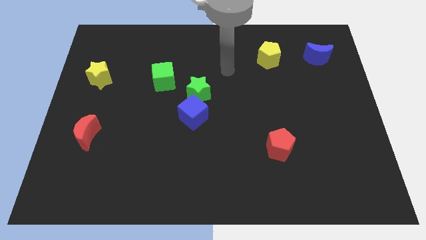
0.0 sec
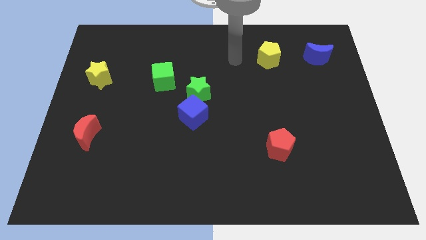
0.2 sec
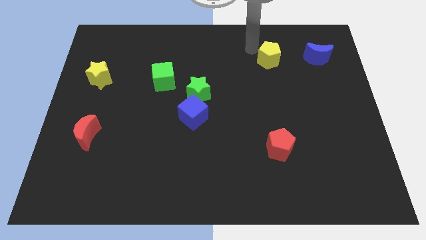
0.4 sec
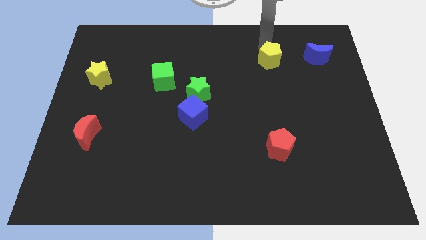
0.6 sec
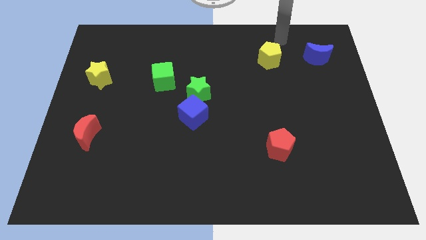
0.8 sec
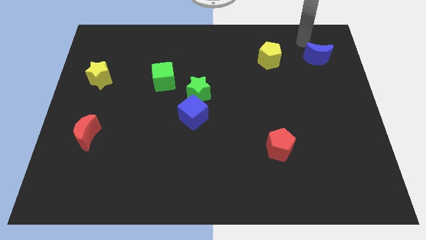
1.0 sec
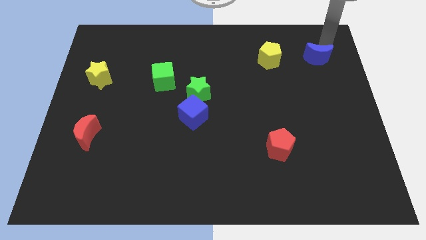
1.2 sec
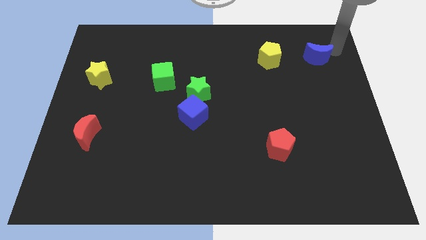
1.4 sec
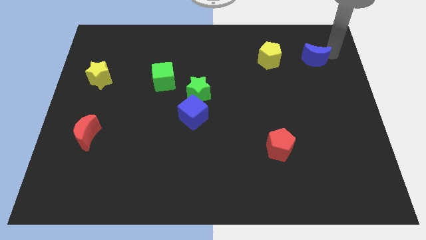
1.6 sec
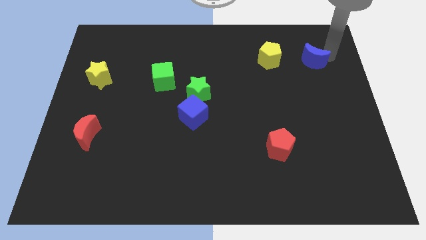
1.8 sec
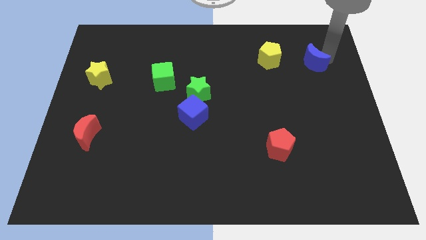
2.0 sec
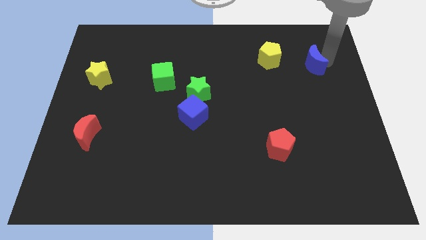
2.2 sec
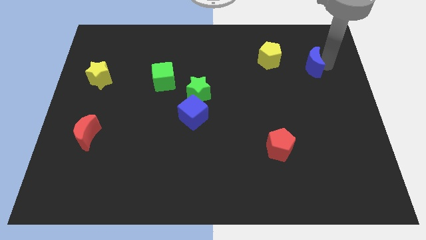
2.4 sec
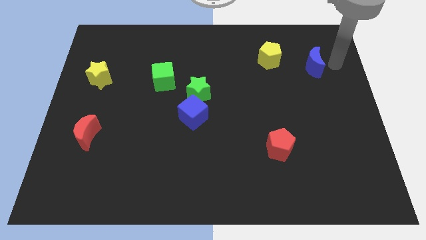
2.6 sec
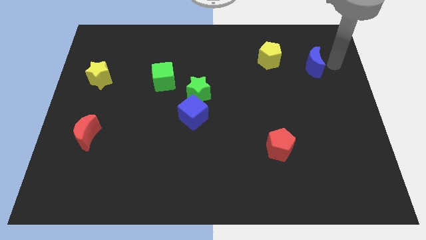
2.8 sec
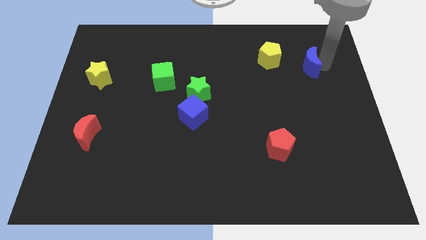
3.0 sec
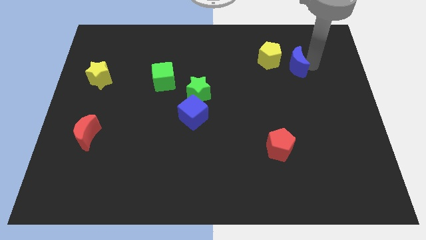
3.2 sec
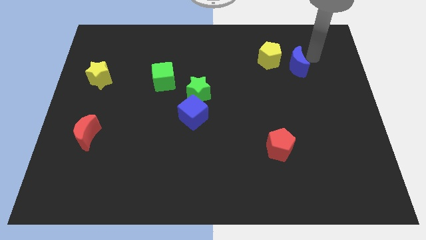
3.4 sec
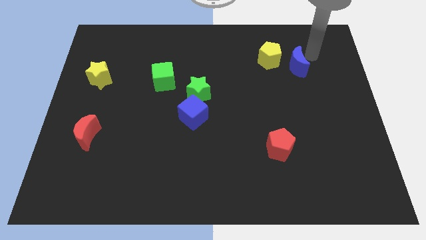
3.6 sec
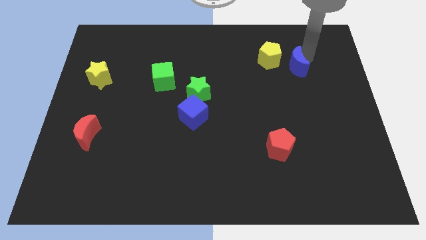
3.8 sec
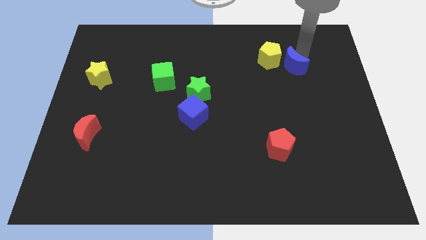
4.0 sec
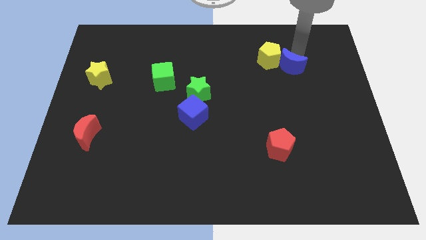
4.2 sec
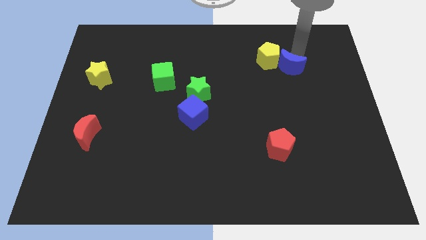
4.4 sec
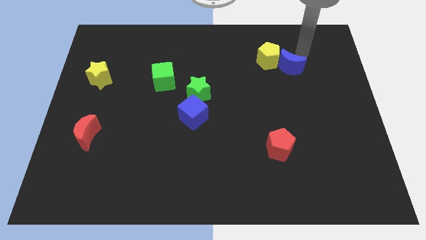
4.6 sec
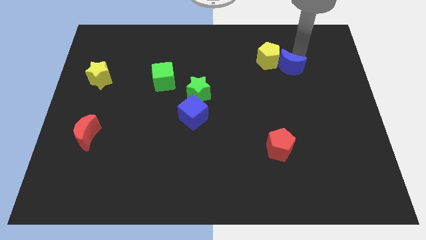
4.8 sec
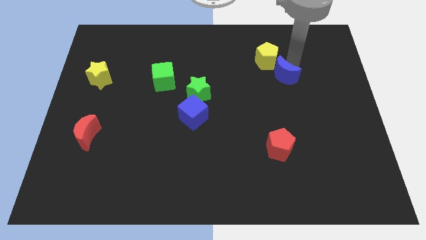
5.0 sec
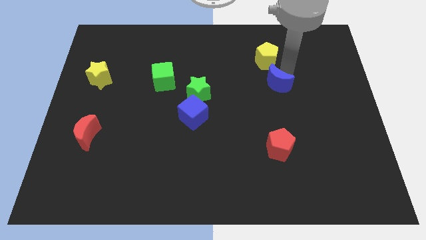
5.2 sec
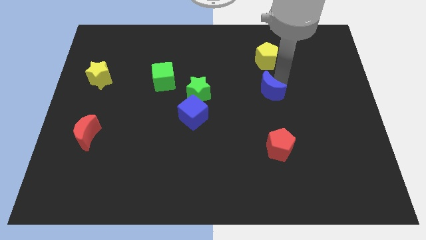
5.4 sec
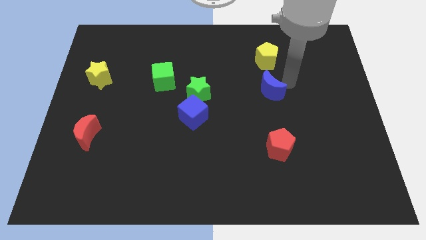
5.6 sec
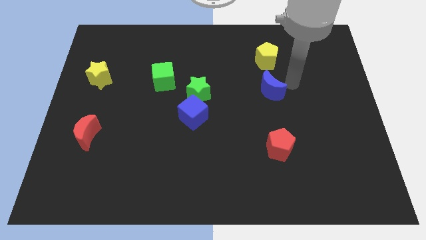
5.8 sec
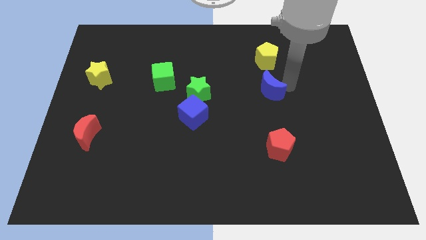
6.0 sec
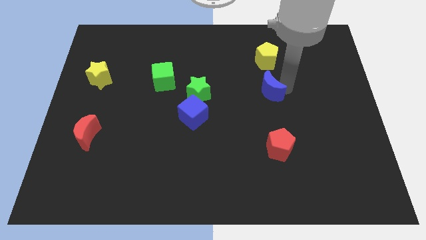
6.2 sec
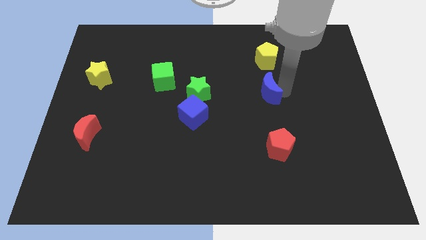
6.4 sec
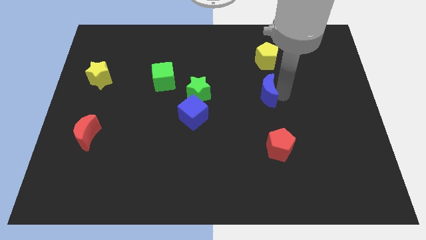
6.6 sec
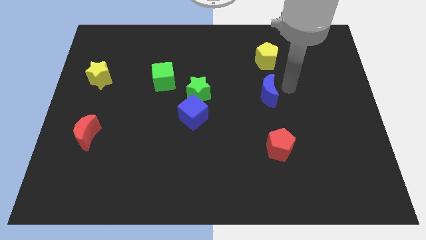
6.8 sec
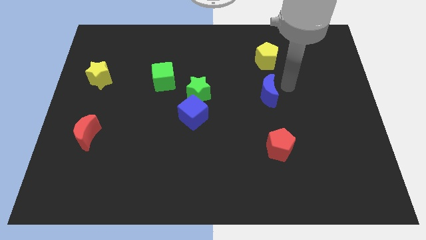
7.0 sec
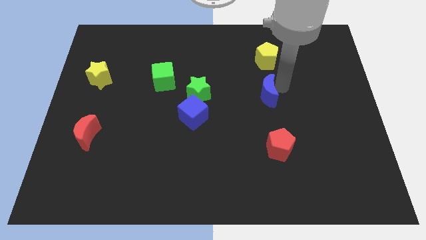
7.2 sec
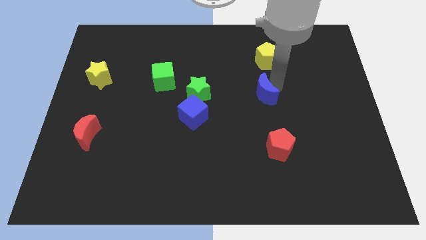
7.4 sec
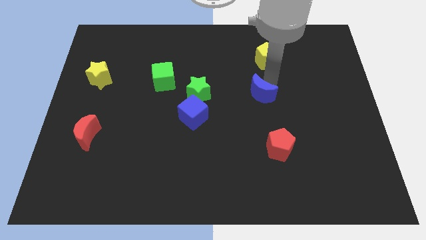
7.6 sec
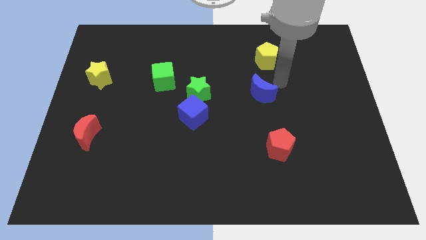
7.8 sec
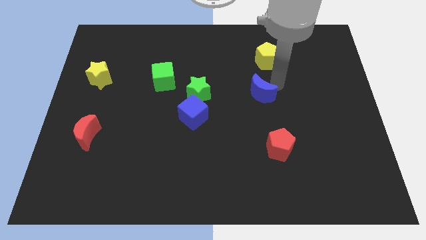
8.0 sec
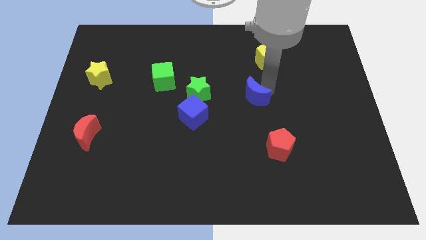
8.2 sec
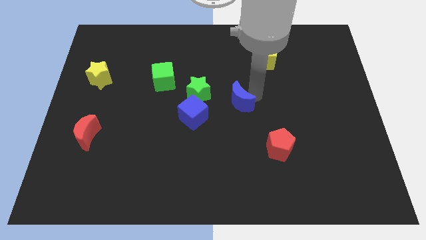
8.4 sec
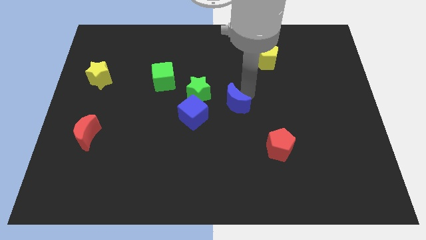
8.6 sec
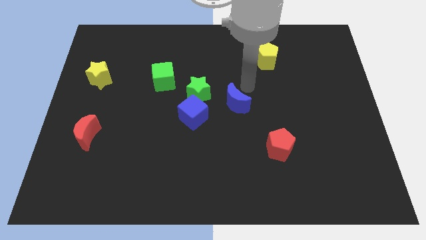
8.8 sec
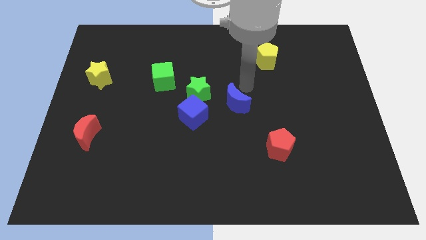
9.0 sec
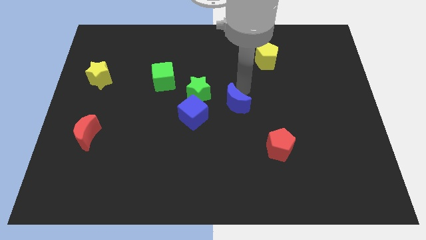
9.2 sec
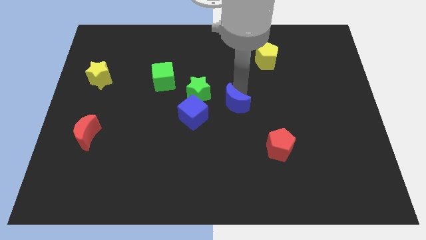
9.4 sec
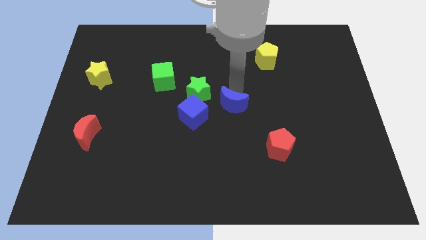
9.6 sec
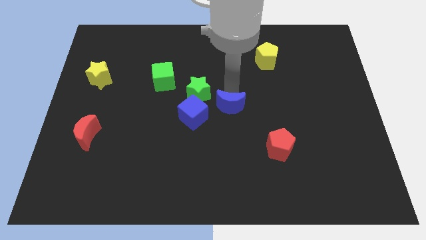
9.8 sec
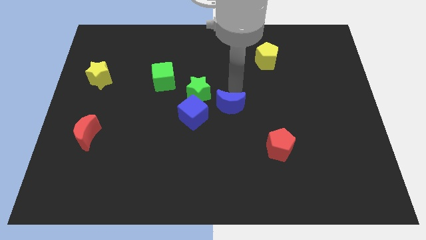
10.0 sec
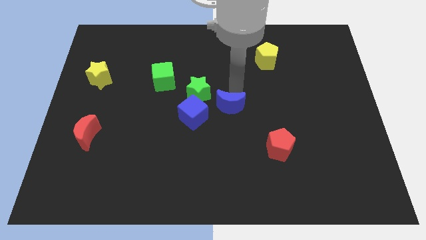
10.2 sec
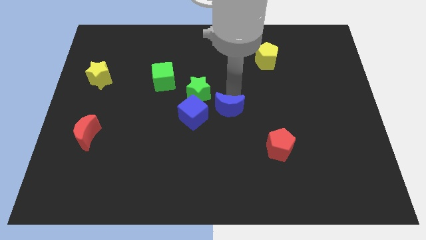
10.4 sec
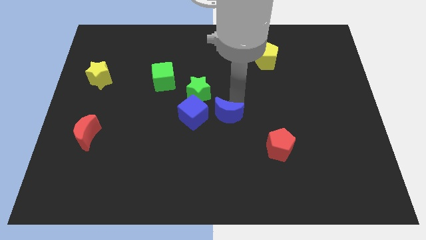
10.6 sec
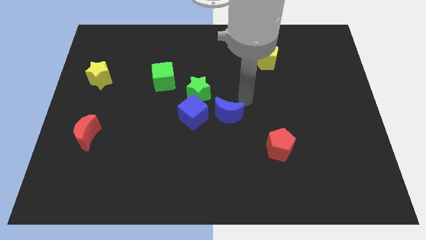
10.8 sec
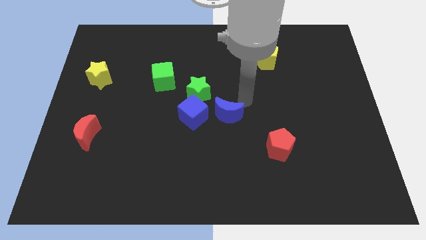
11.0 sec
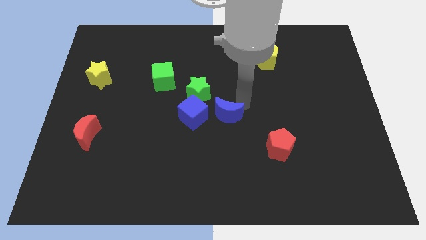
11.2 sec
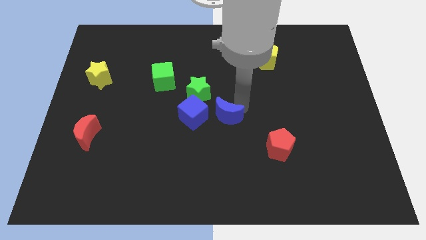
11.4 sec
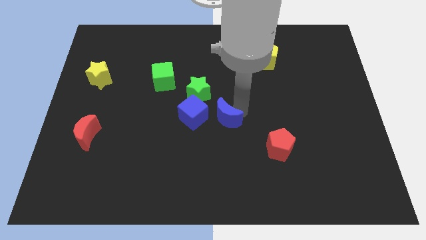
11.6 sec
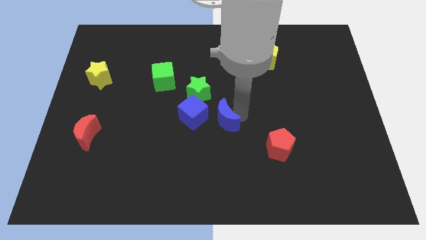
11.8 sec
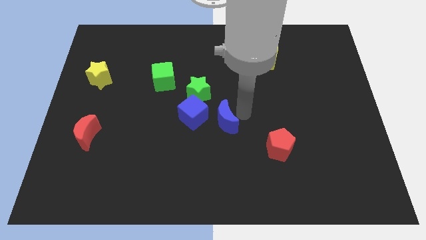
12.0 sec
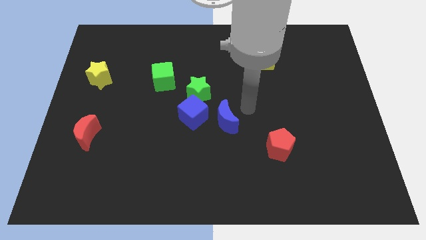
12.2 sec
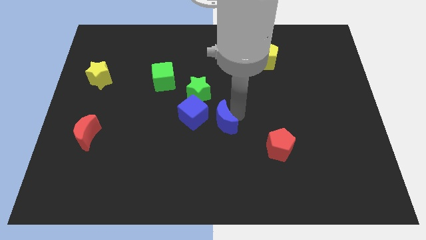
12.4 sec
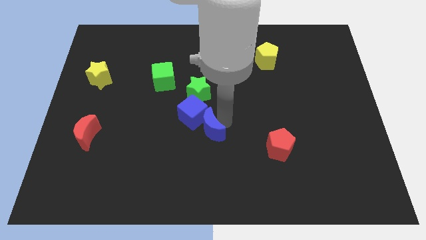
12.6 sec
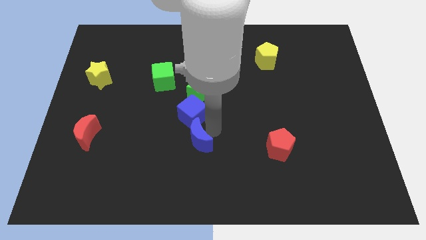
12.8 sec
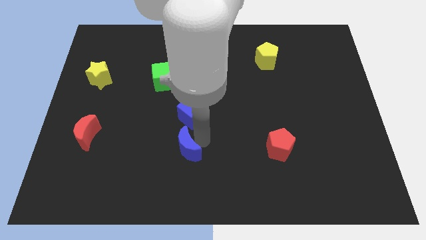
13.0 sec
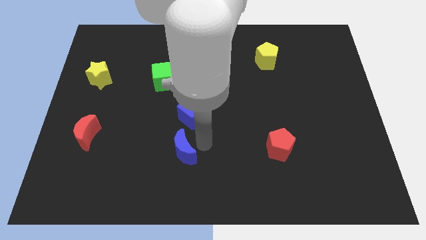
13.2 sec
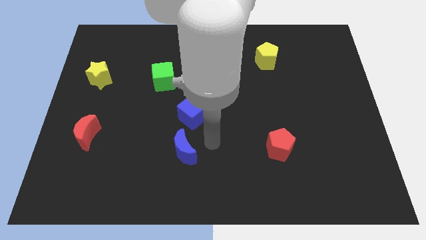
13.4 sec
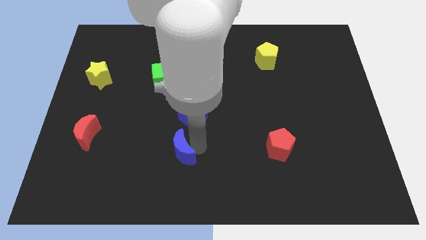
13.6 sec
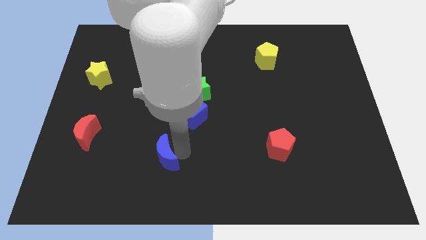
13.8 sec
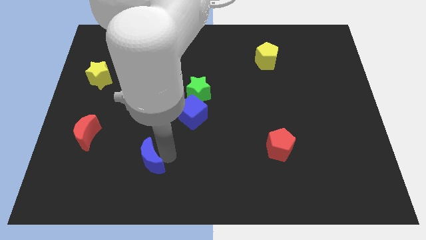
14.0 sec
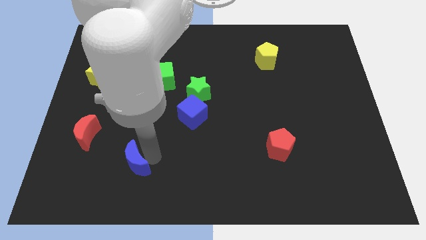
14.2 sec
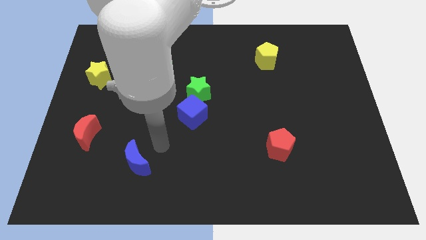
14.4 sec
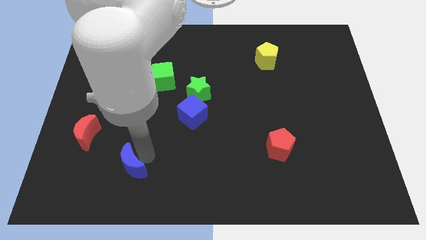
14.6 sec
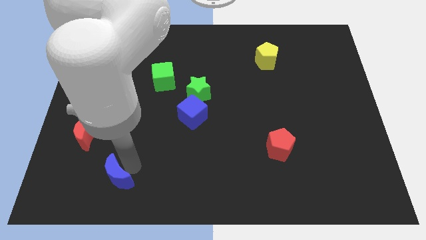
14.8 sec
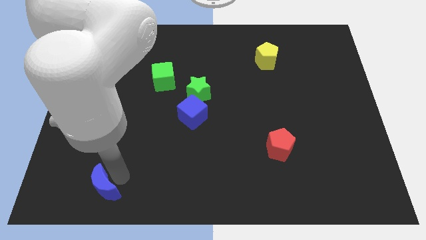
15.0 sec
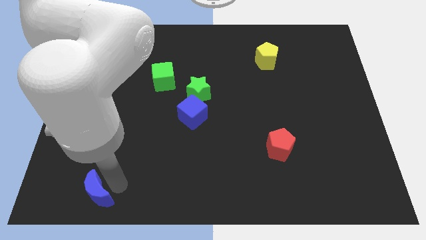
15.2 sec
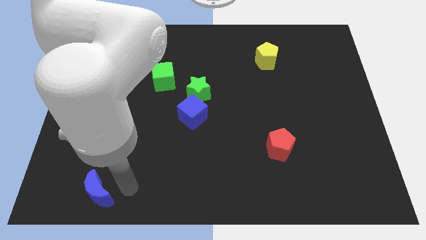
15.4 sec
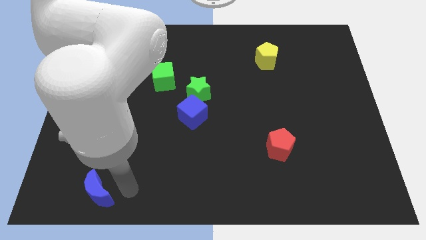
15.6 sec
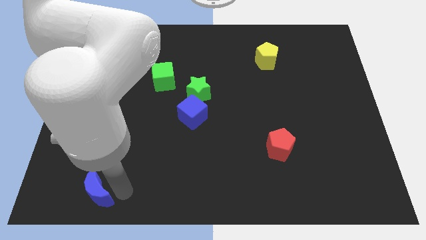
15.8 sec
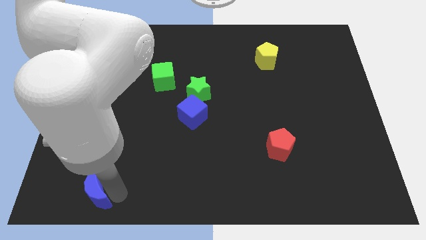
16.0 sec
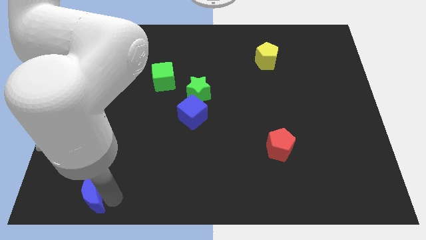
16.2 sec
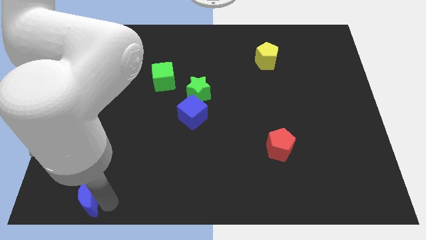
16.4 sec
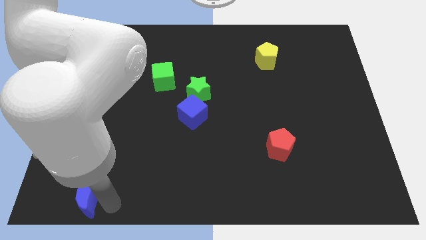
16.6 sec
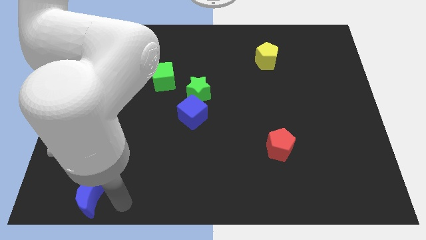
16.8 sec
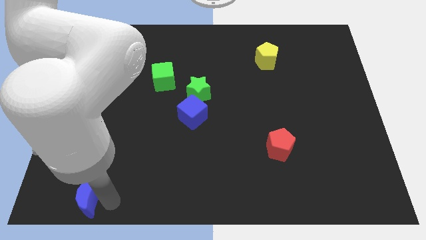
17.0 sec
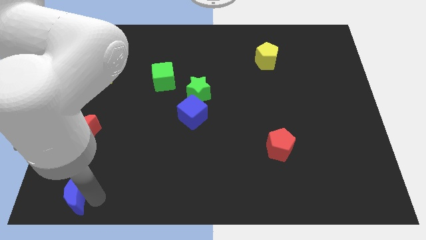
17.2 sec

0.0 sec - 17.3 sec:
put the blue moon to the bottom left corner

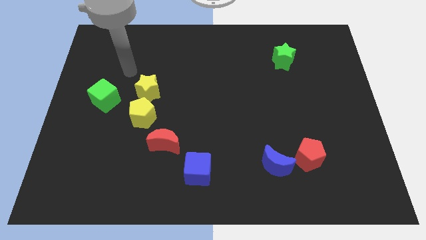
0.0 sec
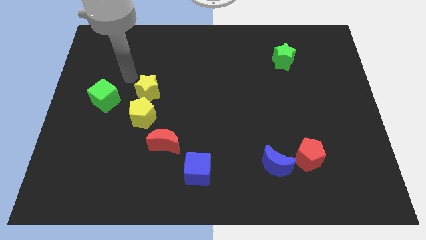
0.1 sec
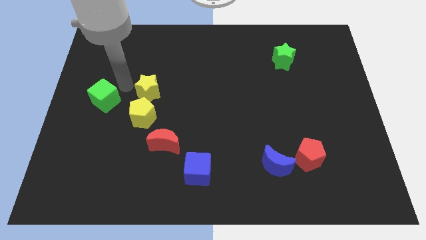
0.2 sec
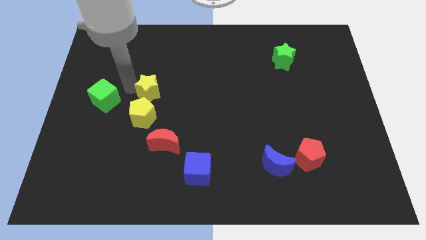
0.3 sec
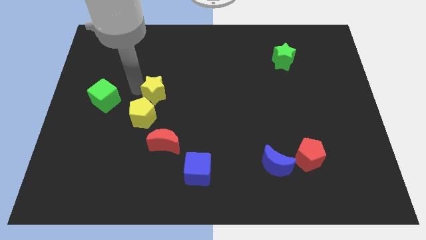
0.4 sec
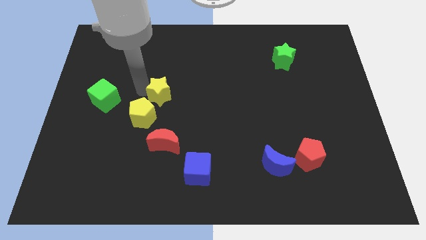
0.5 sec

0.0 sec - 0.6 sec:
move the yellow star to the center of the board
